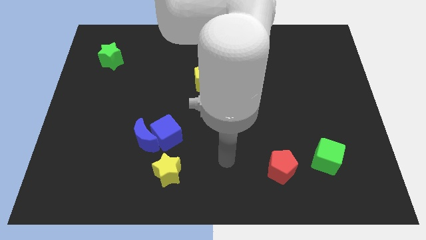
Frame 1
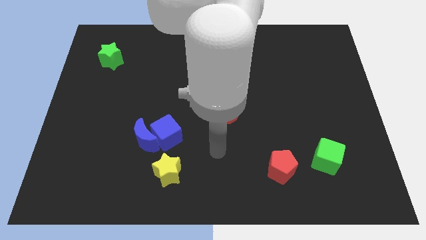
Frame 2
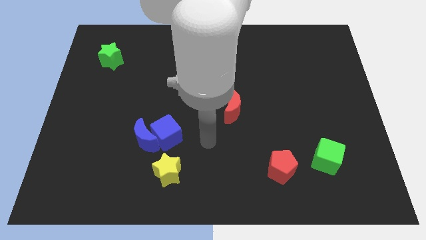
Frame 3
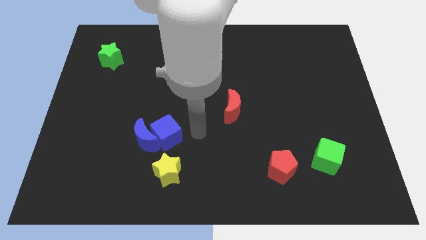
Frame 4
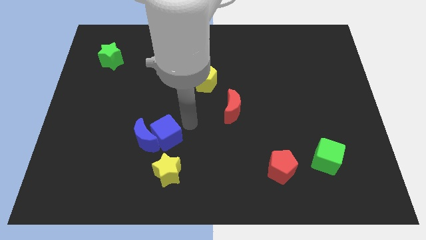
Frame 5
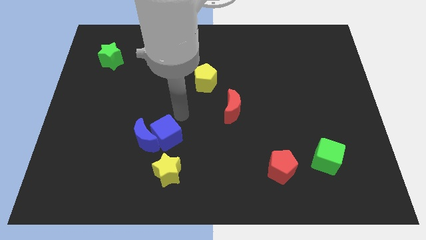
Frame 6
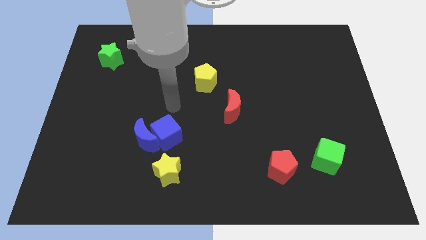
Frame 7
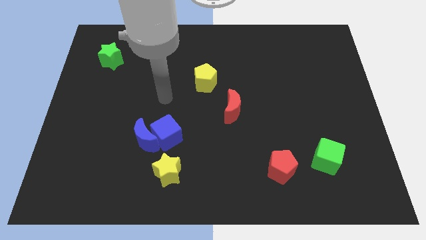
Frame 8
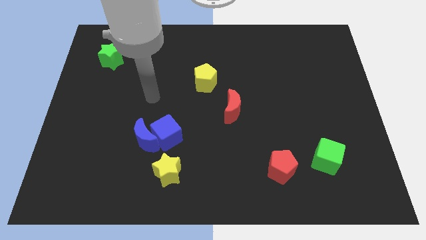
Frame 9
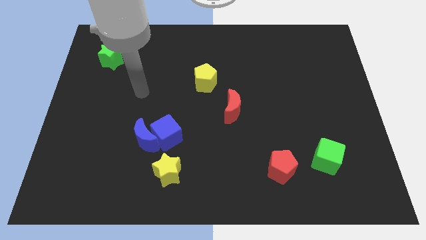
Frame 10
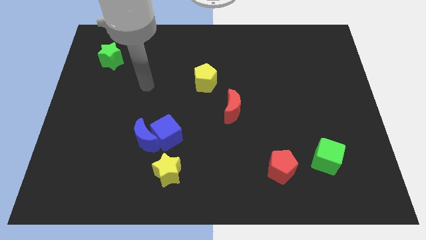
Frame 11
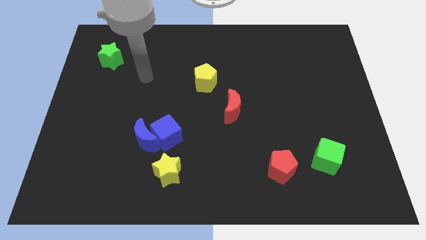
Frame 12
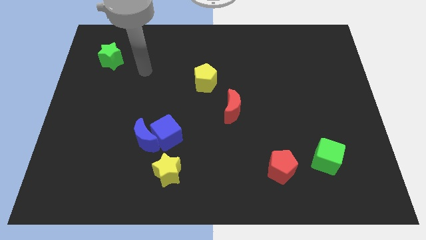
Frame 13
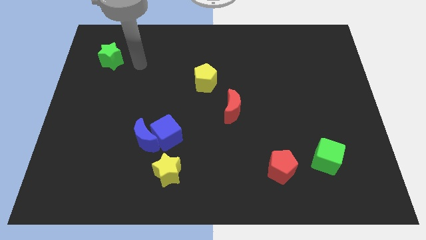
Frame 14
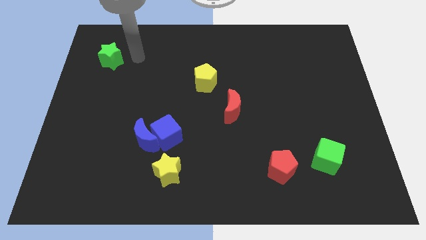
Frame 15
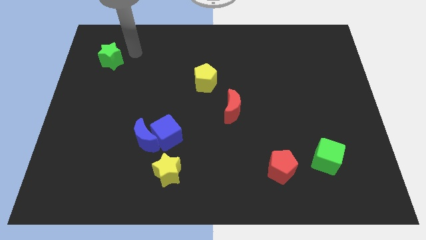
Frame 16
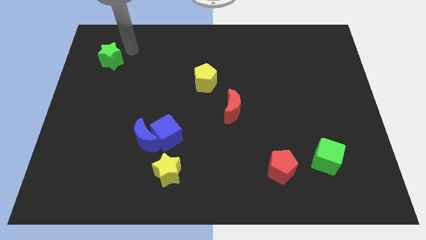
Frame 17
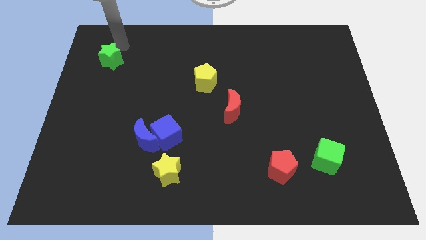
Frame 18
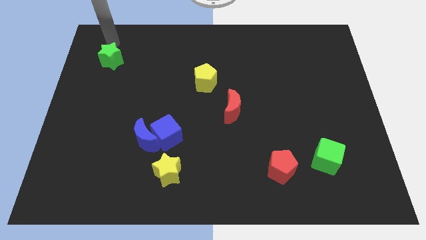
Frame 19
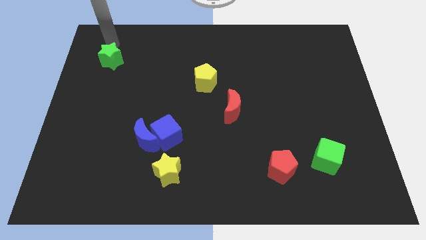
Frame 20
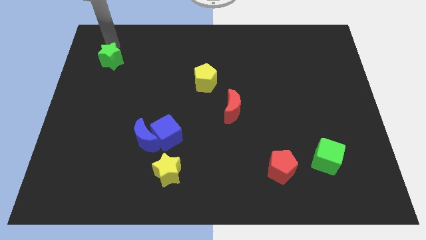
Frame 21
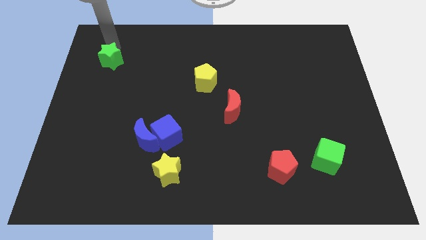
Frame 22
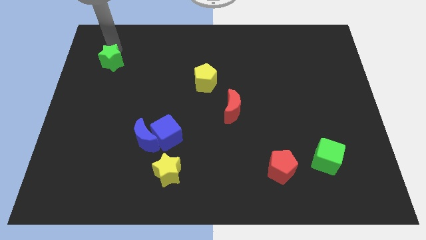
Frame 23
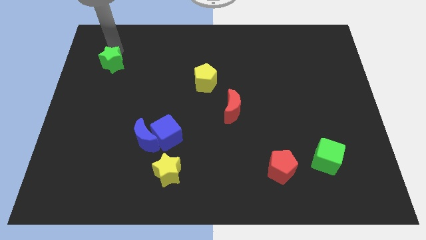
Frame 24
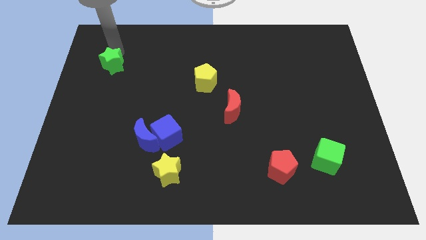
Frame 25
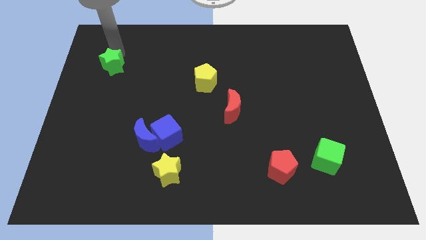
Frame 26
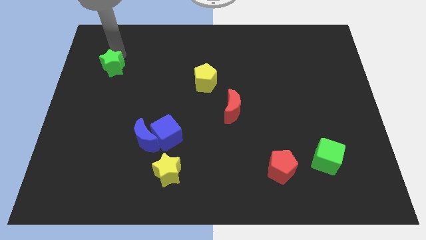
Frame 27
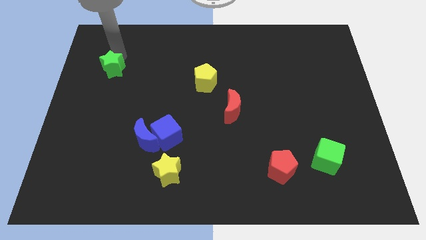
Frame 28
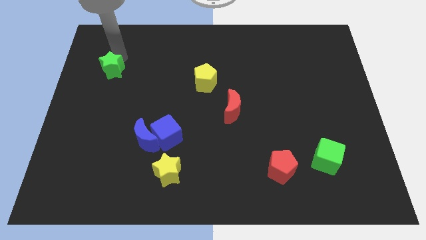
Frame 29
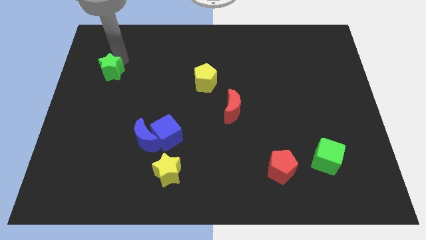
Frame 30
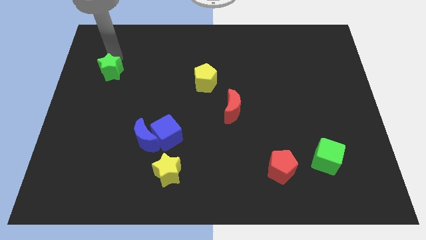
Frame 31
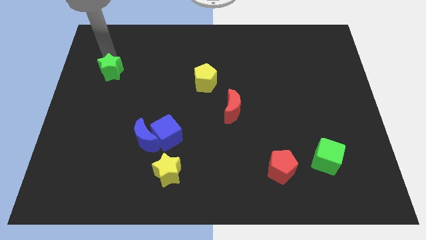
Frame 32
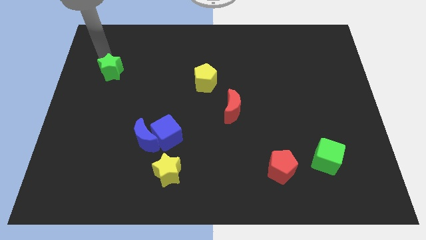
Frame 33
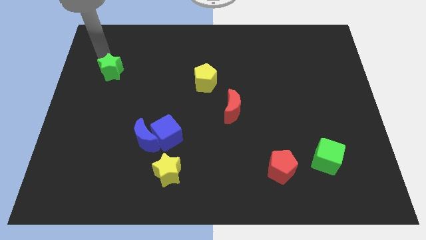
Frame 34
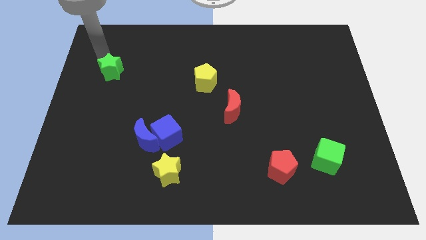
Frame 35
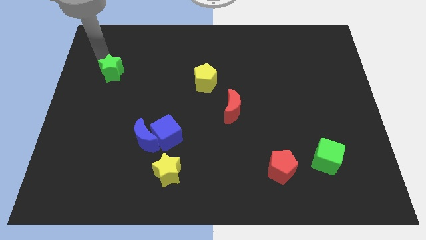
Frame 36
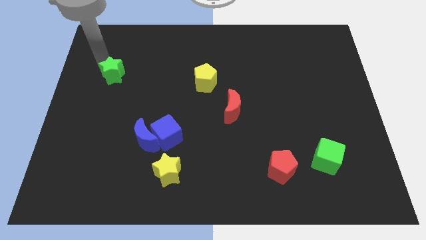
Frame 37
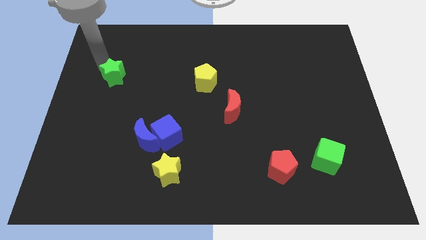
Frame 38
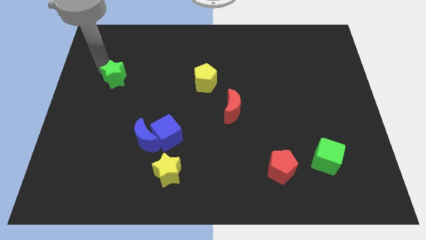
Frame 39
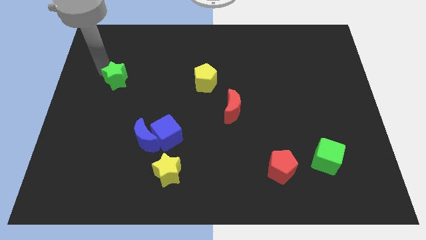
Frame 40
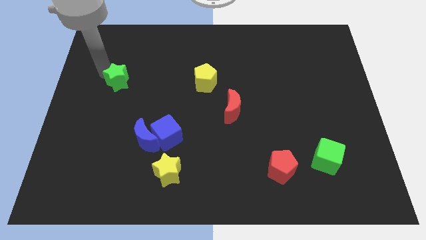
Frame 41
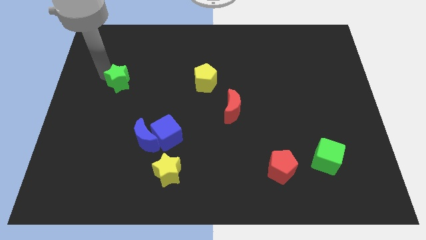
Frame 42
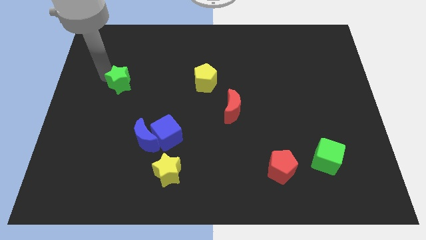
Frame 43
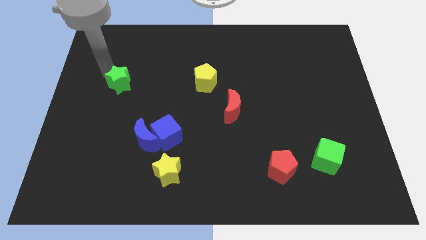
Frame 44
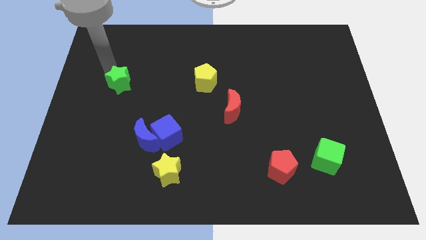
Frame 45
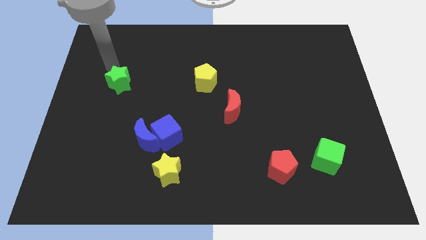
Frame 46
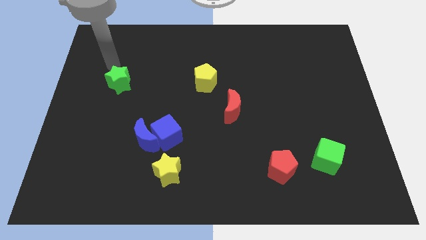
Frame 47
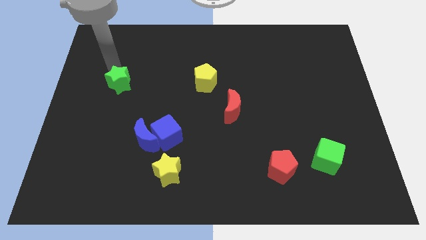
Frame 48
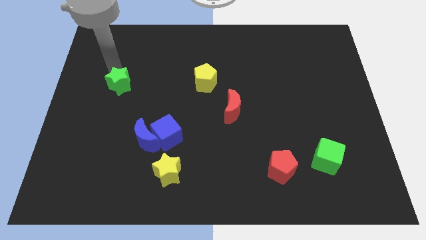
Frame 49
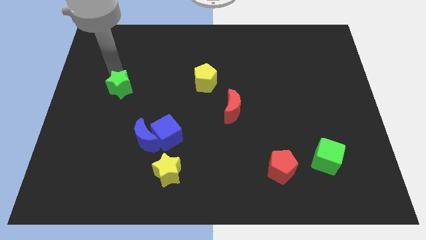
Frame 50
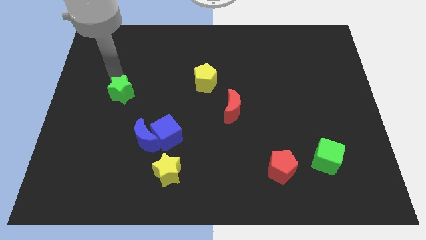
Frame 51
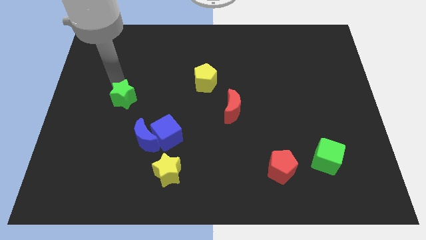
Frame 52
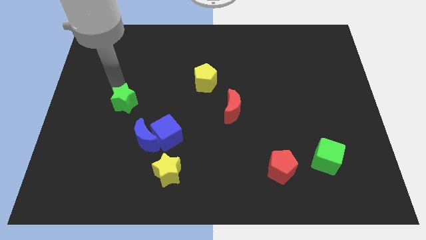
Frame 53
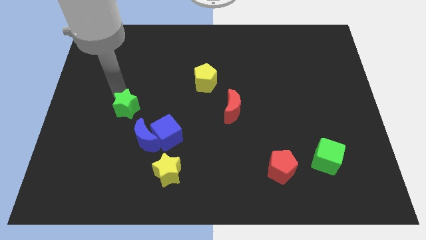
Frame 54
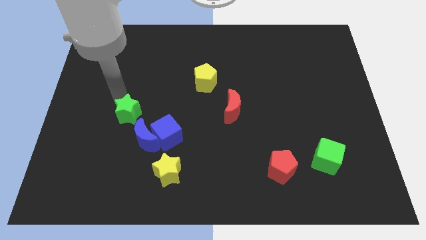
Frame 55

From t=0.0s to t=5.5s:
push the green star to the top left side of the blue cube
